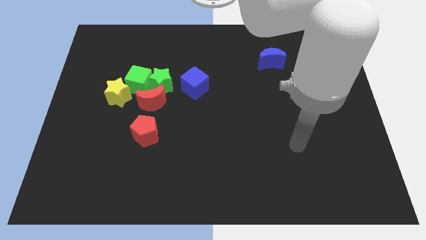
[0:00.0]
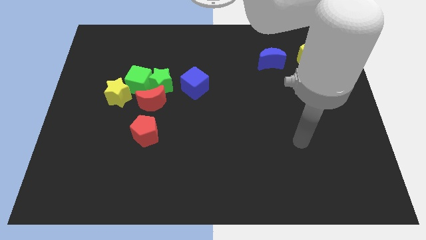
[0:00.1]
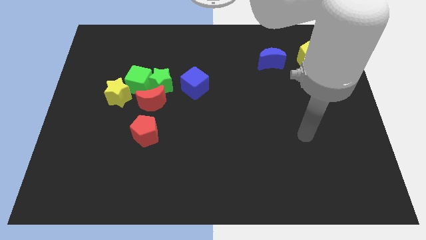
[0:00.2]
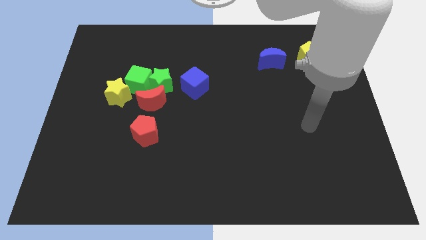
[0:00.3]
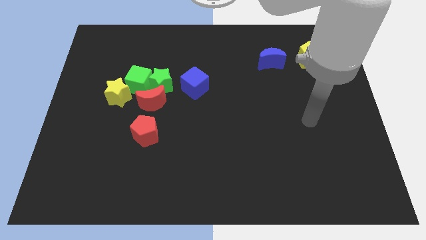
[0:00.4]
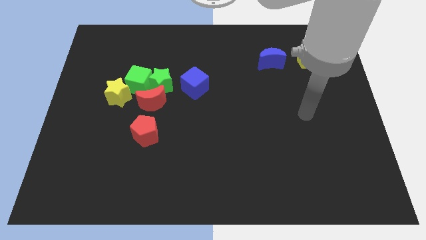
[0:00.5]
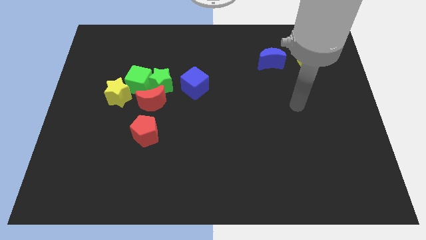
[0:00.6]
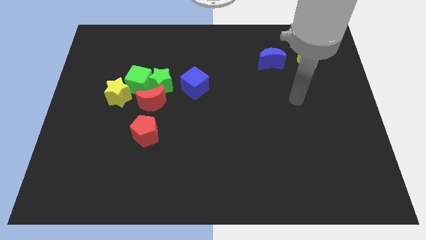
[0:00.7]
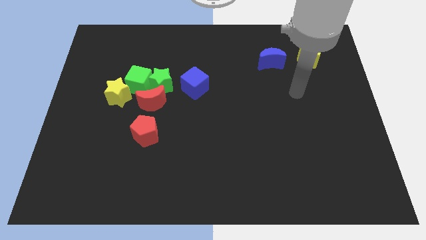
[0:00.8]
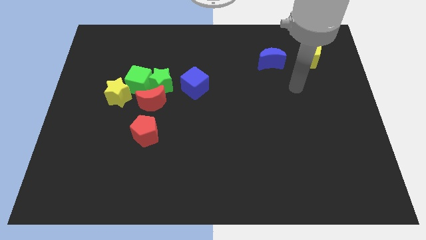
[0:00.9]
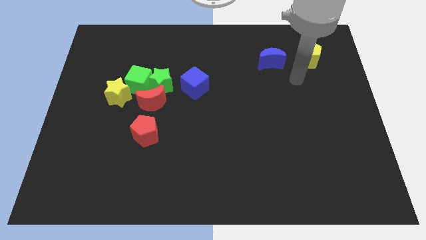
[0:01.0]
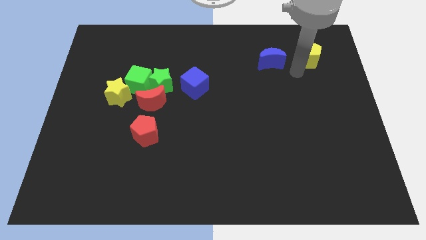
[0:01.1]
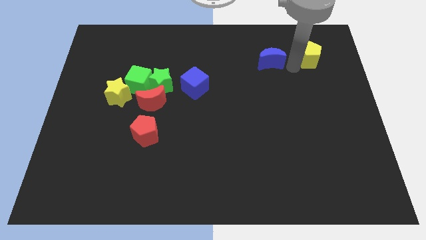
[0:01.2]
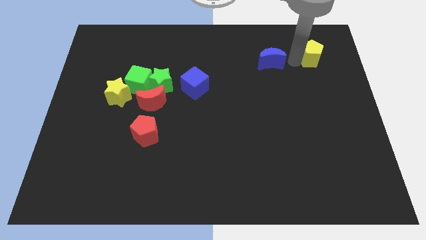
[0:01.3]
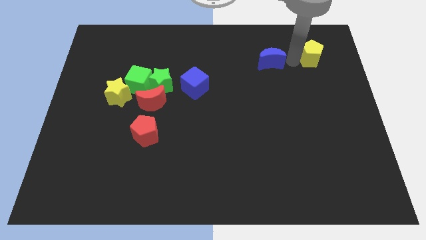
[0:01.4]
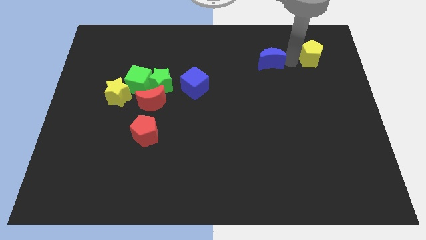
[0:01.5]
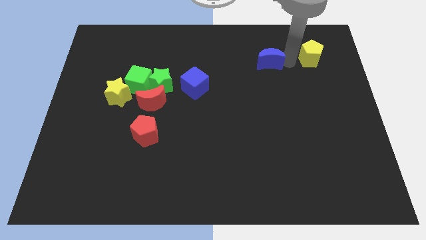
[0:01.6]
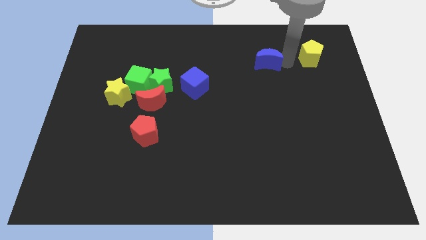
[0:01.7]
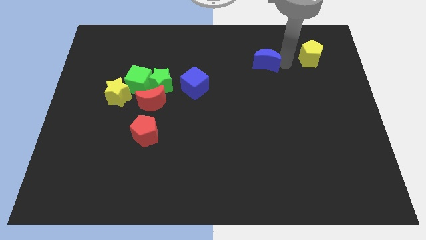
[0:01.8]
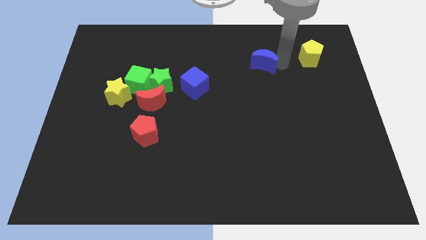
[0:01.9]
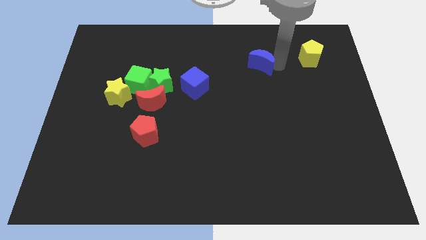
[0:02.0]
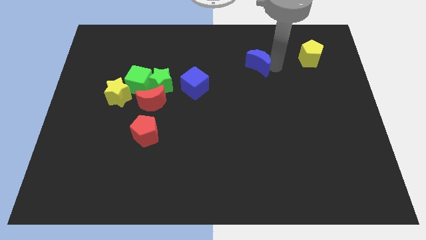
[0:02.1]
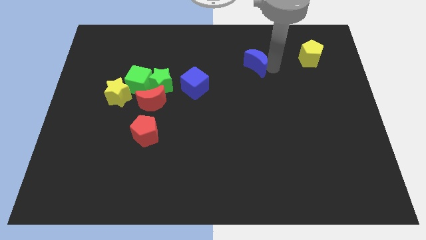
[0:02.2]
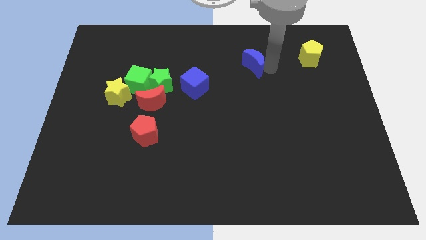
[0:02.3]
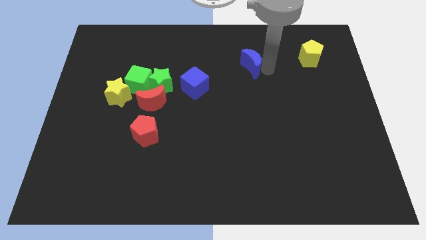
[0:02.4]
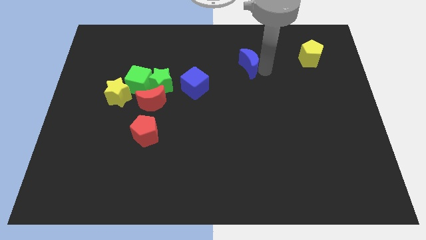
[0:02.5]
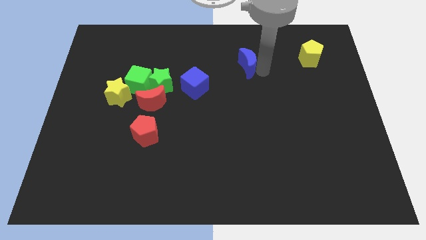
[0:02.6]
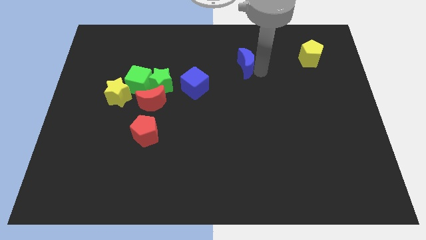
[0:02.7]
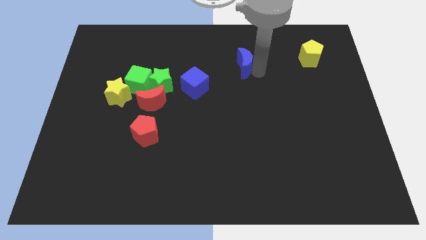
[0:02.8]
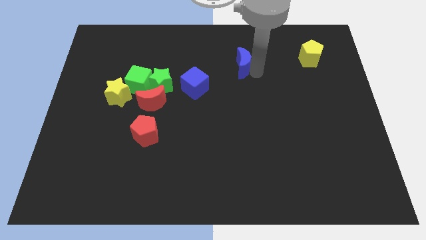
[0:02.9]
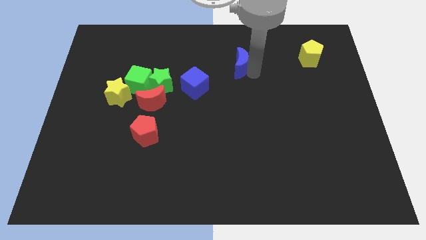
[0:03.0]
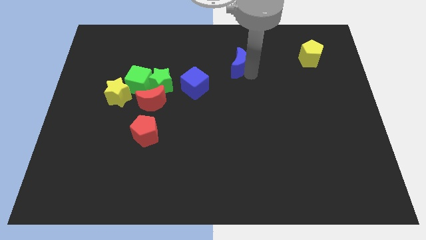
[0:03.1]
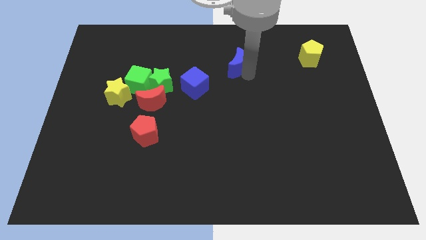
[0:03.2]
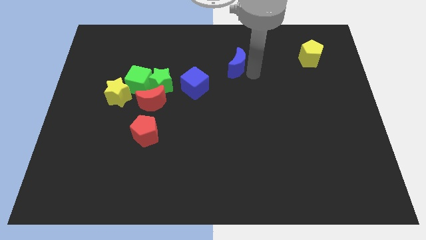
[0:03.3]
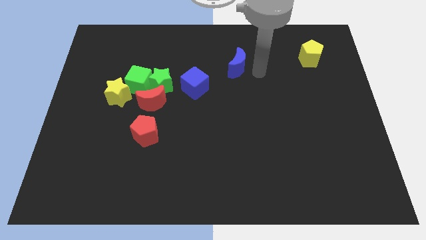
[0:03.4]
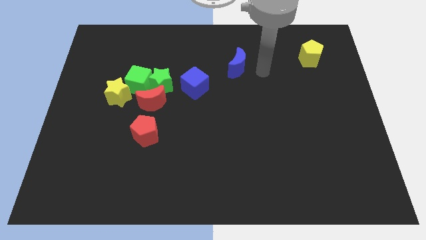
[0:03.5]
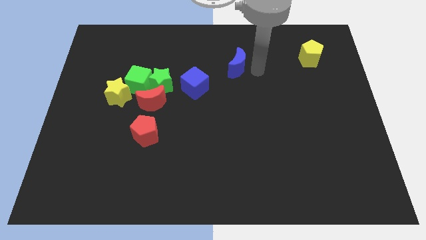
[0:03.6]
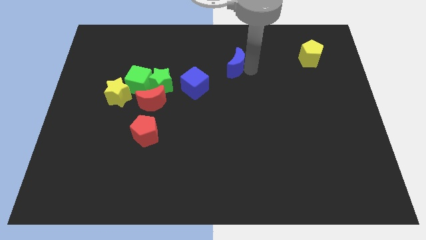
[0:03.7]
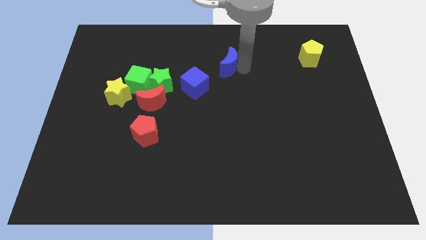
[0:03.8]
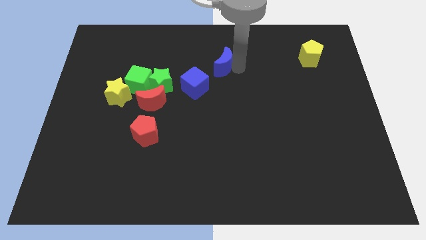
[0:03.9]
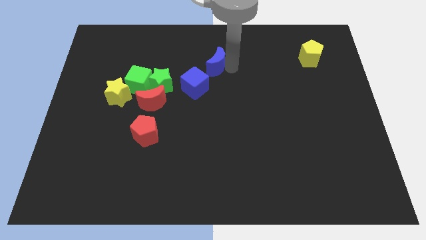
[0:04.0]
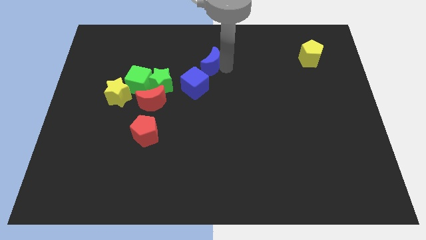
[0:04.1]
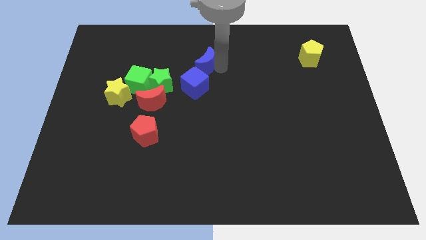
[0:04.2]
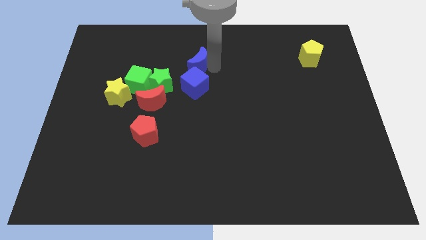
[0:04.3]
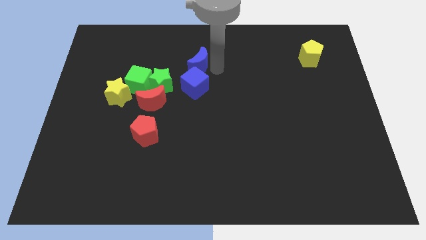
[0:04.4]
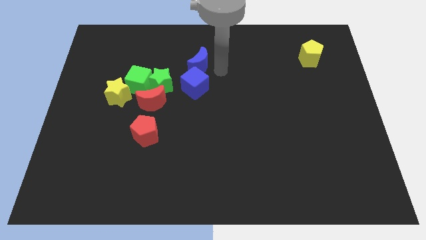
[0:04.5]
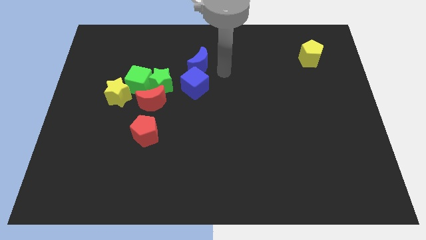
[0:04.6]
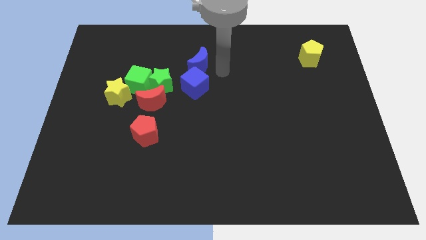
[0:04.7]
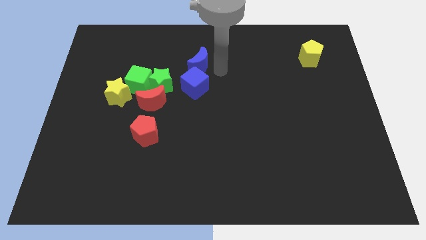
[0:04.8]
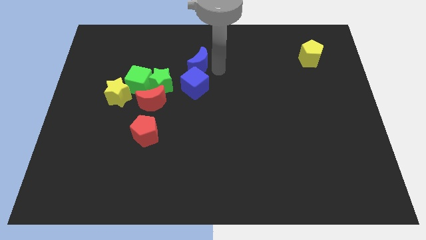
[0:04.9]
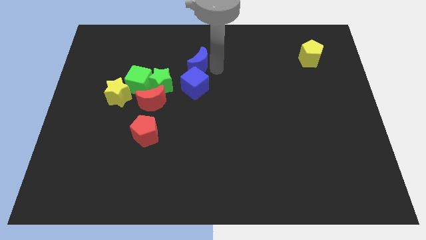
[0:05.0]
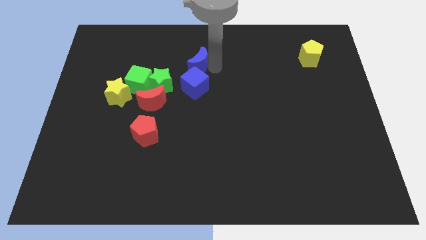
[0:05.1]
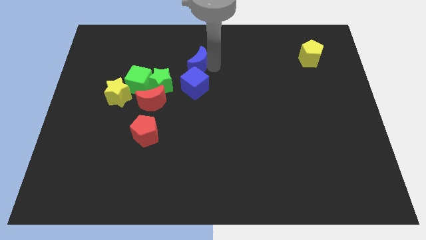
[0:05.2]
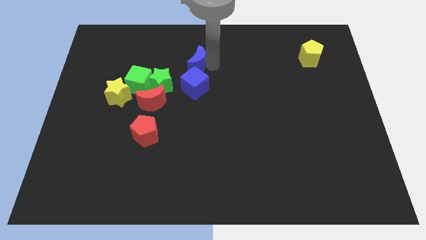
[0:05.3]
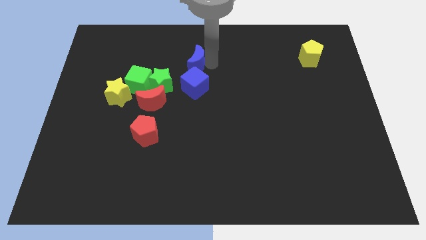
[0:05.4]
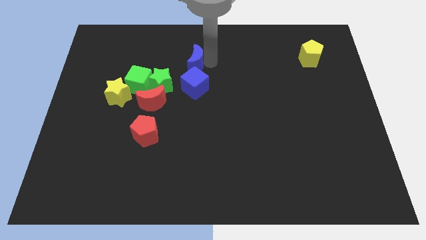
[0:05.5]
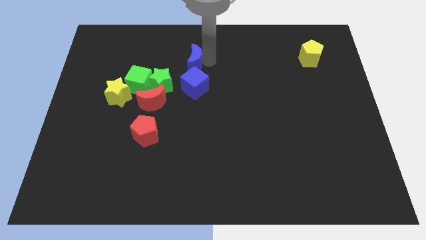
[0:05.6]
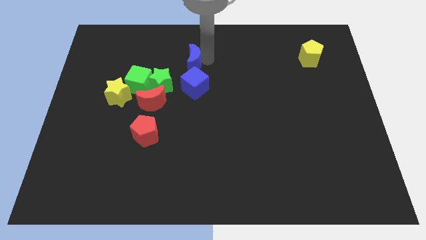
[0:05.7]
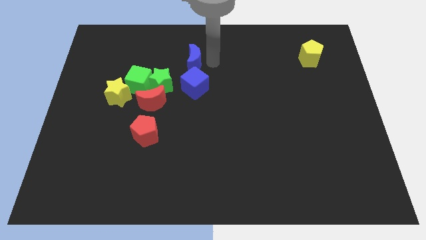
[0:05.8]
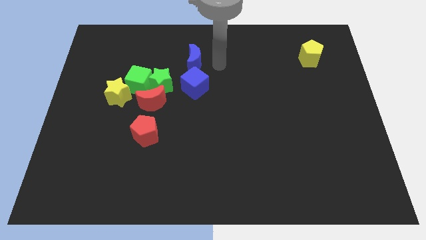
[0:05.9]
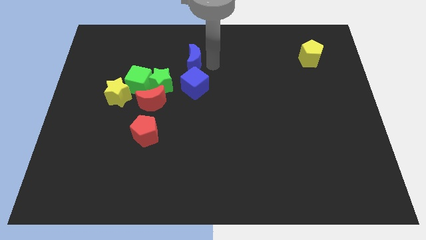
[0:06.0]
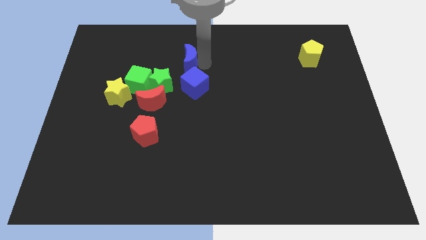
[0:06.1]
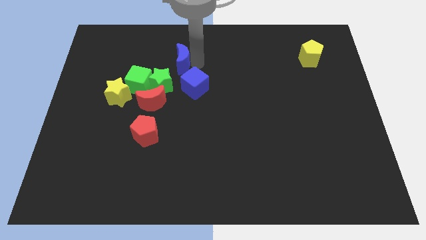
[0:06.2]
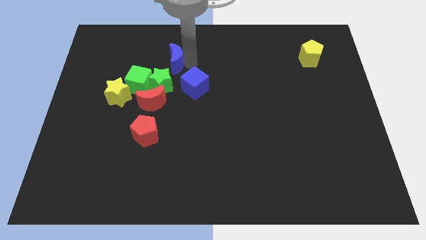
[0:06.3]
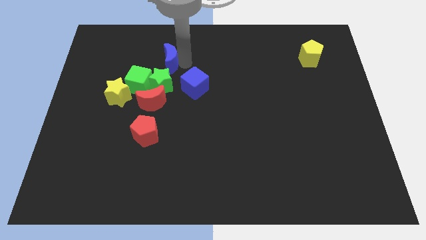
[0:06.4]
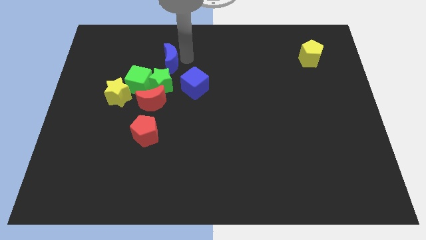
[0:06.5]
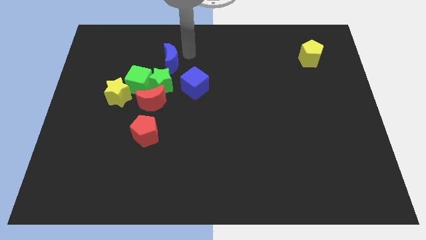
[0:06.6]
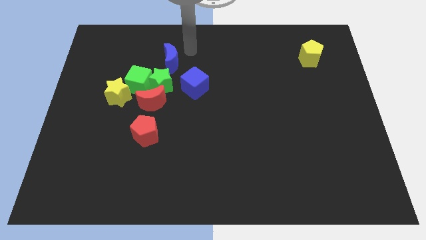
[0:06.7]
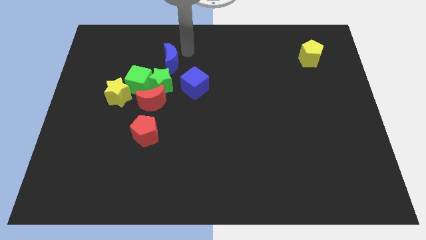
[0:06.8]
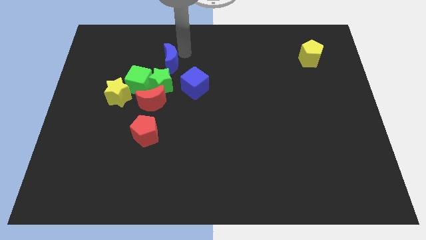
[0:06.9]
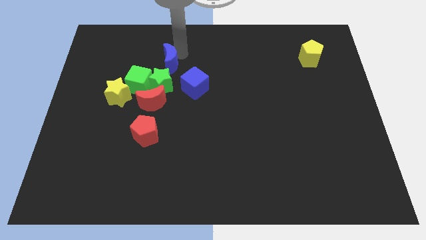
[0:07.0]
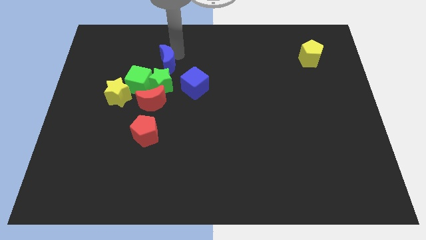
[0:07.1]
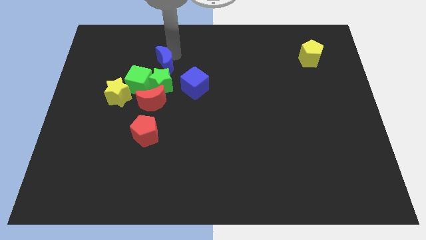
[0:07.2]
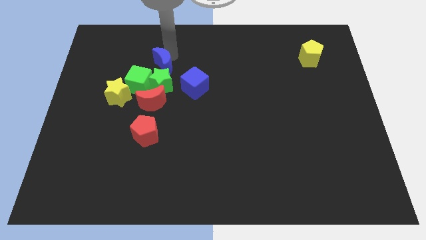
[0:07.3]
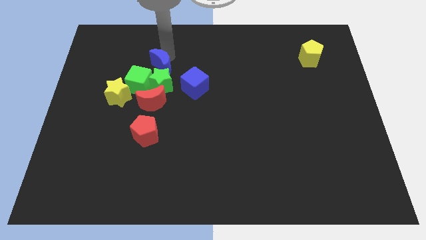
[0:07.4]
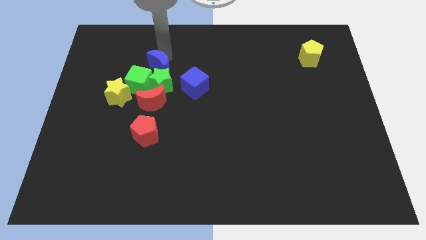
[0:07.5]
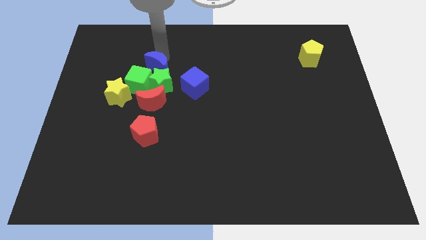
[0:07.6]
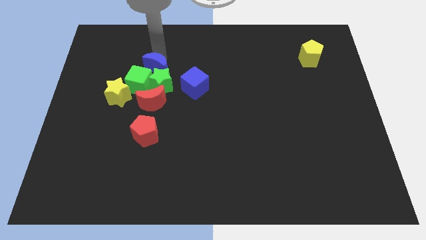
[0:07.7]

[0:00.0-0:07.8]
slide the blue moon to the top right of the yellow star

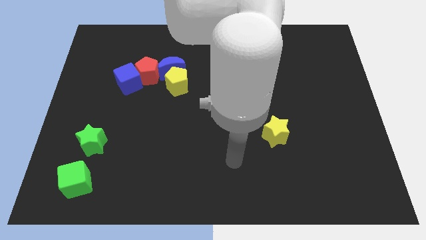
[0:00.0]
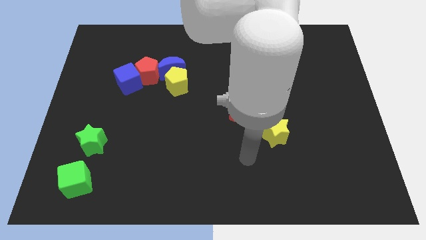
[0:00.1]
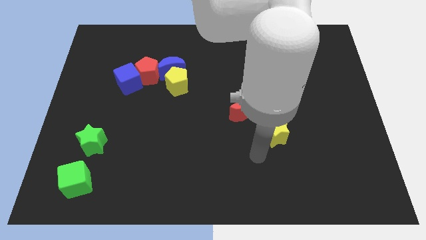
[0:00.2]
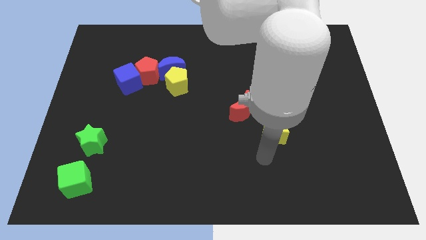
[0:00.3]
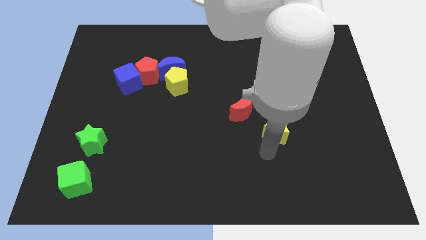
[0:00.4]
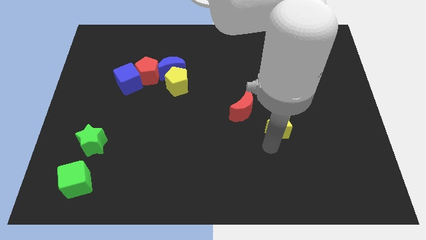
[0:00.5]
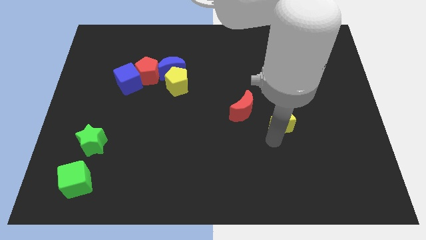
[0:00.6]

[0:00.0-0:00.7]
move the yellow star just right of the red moon
